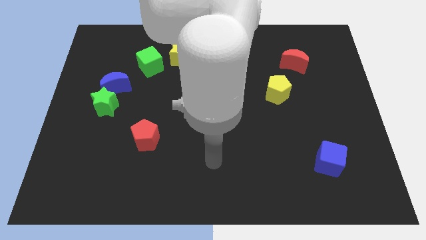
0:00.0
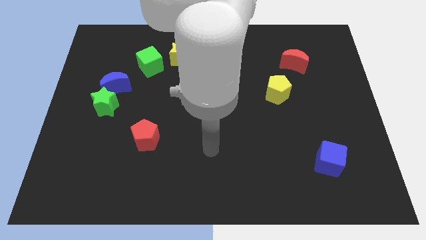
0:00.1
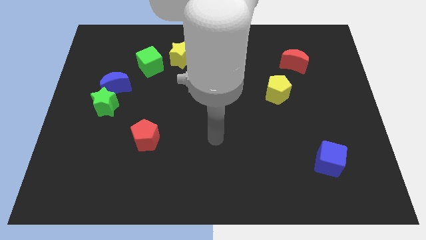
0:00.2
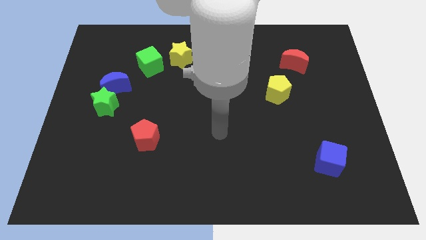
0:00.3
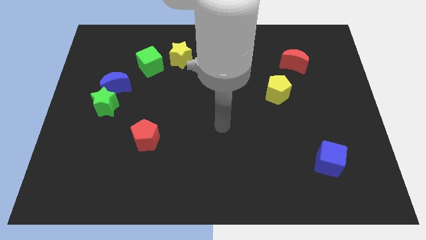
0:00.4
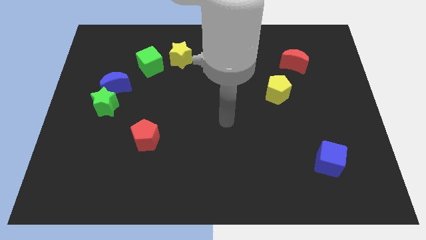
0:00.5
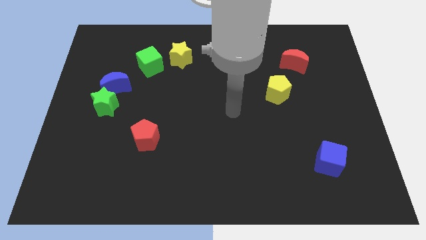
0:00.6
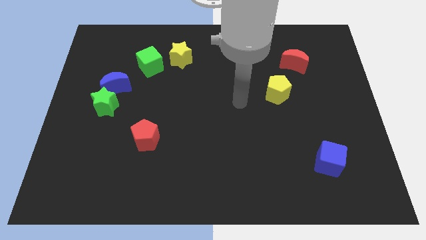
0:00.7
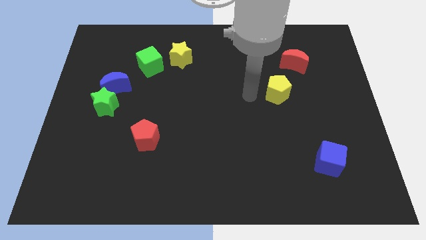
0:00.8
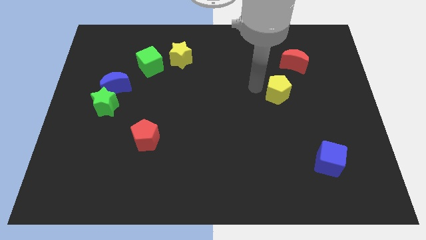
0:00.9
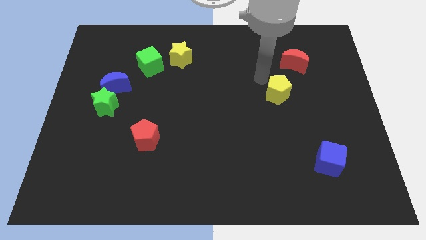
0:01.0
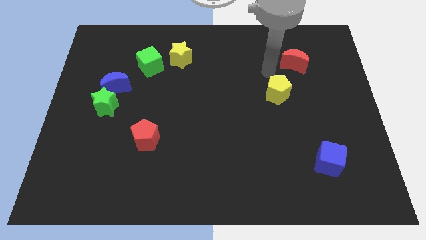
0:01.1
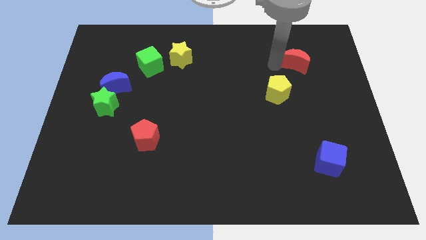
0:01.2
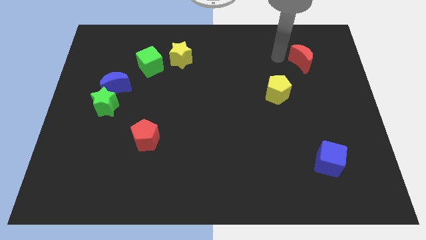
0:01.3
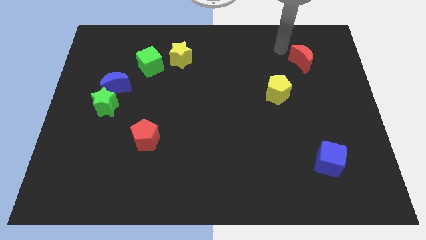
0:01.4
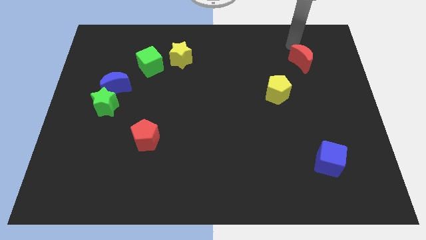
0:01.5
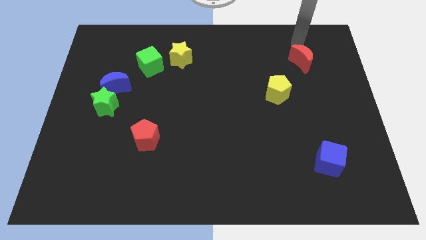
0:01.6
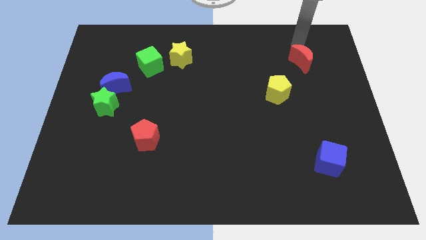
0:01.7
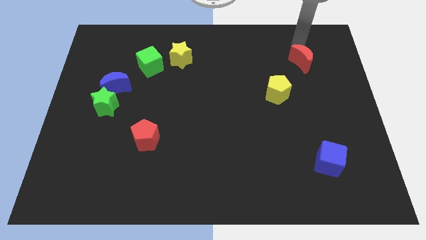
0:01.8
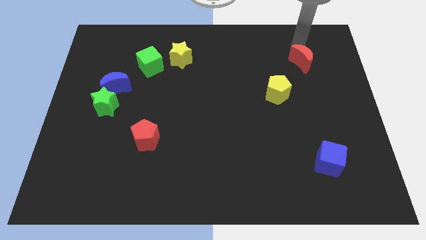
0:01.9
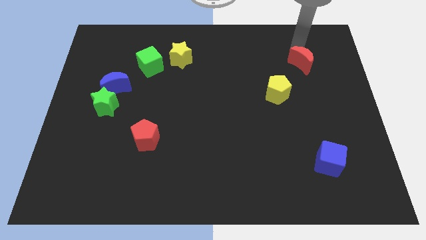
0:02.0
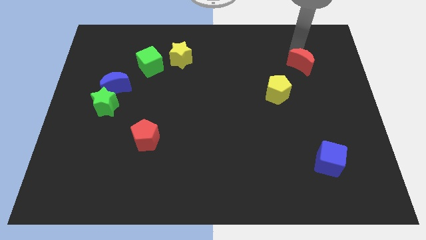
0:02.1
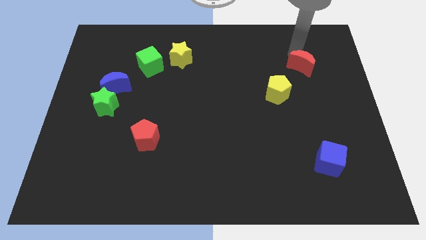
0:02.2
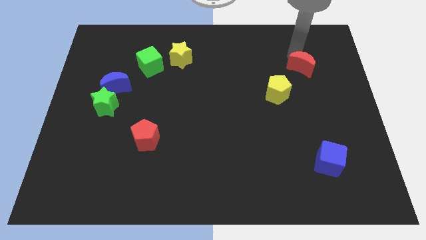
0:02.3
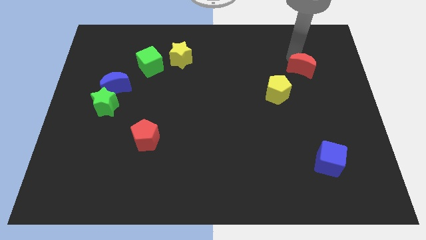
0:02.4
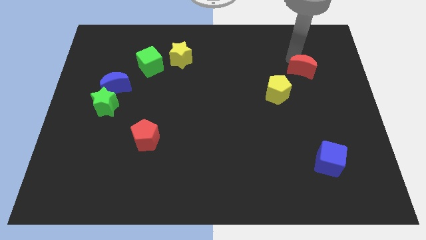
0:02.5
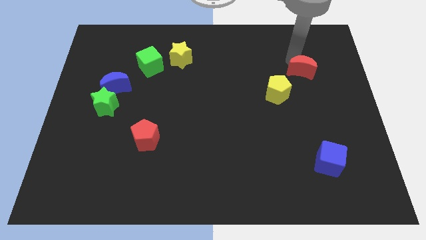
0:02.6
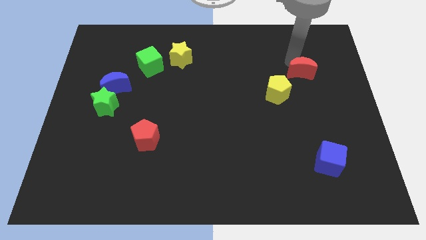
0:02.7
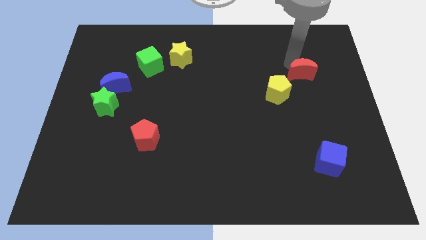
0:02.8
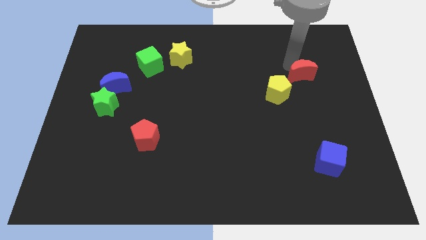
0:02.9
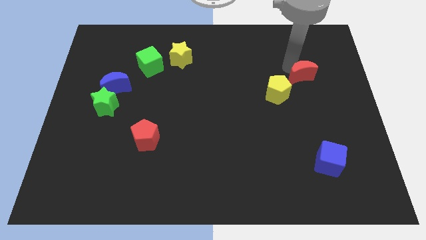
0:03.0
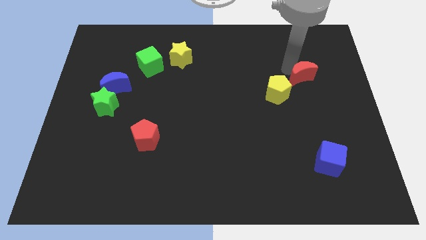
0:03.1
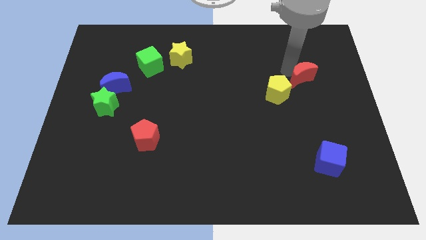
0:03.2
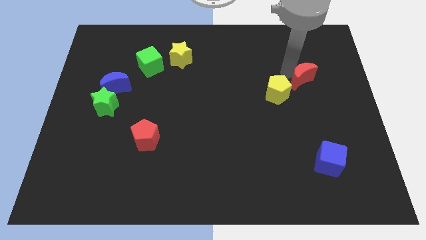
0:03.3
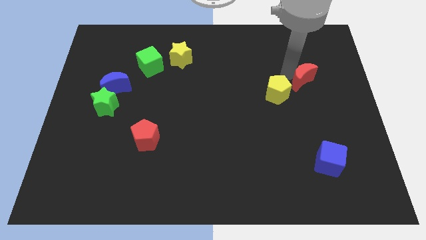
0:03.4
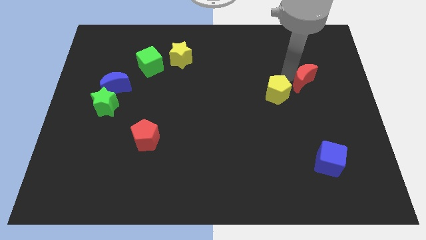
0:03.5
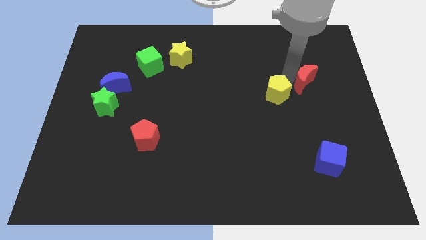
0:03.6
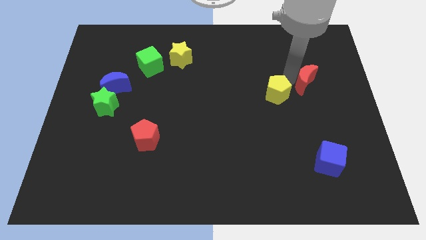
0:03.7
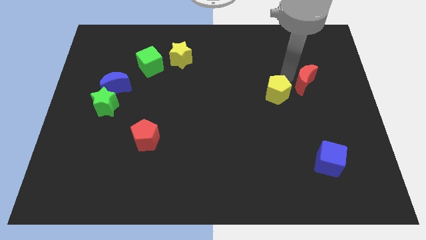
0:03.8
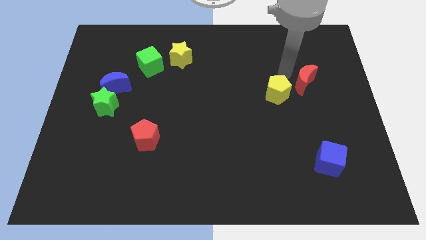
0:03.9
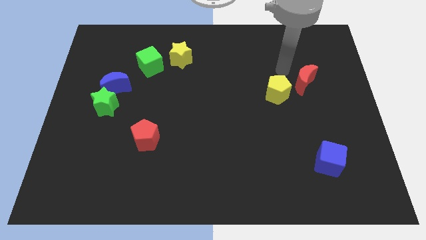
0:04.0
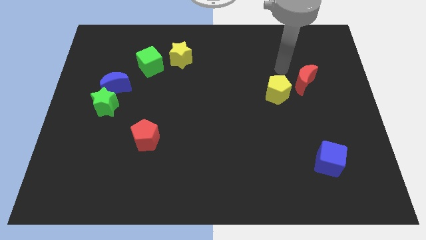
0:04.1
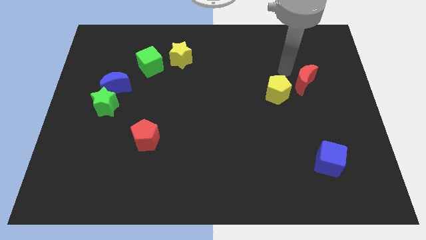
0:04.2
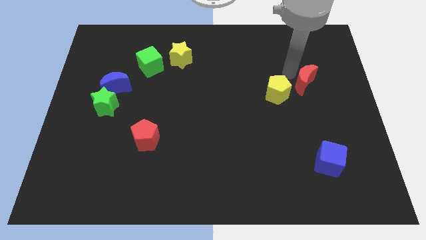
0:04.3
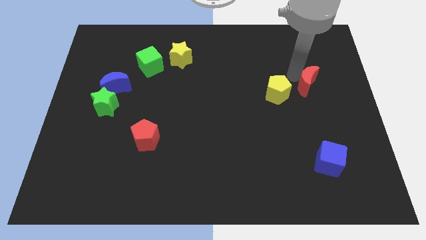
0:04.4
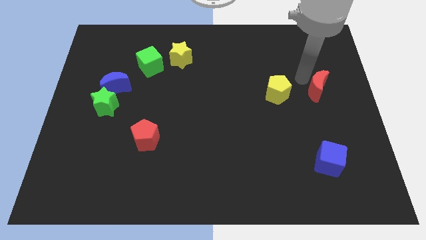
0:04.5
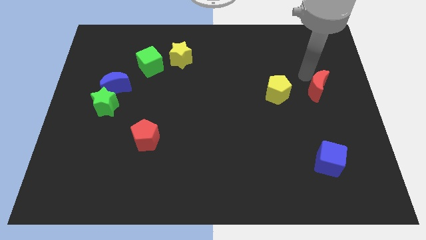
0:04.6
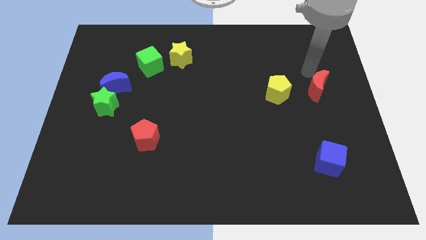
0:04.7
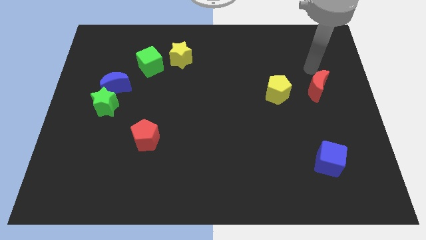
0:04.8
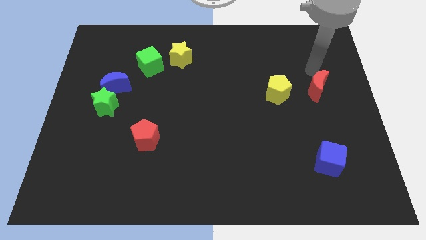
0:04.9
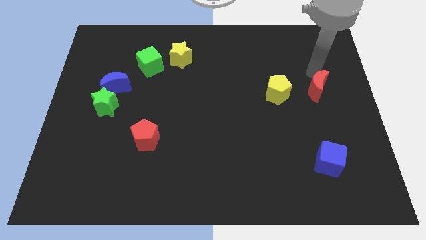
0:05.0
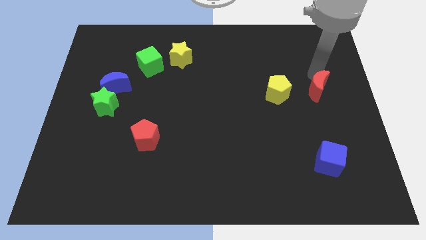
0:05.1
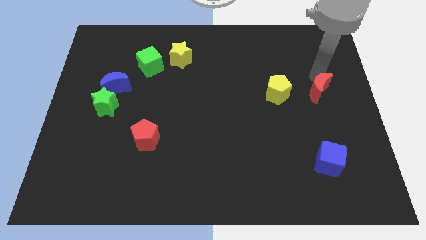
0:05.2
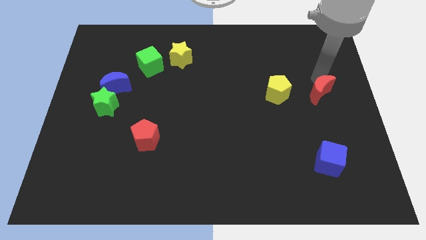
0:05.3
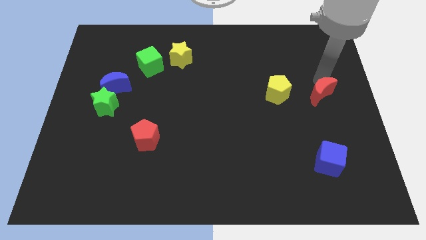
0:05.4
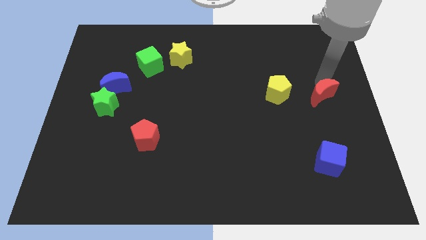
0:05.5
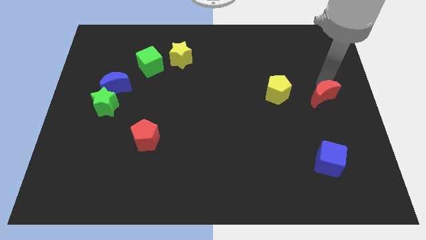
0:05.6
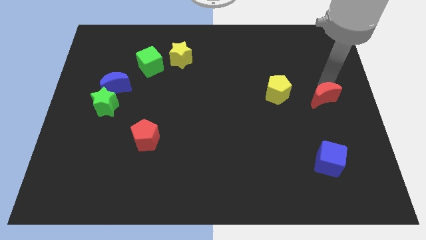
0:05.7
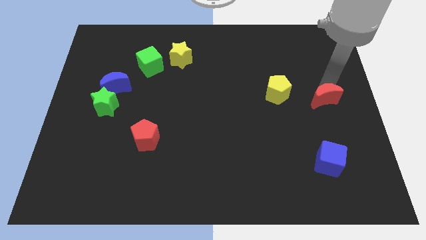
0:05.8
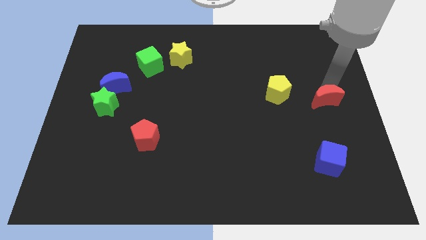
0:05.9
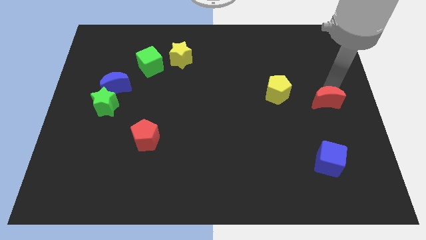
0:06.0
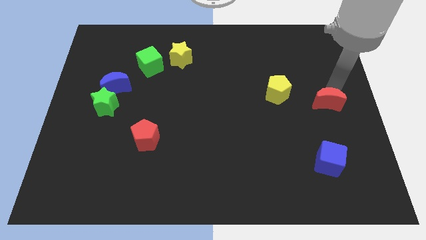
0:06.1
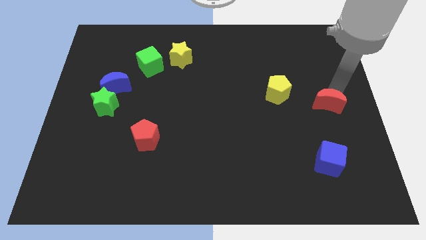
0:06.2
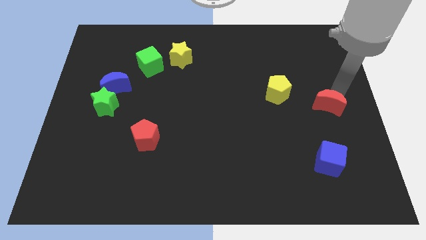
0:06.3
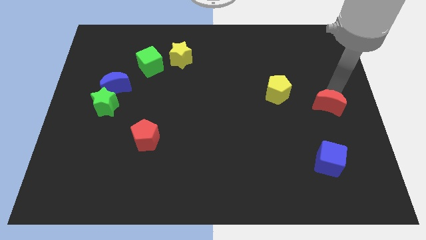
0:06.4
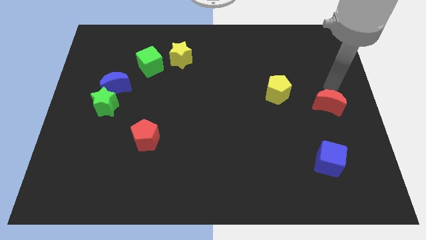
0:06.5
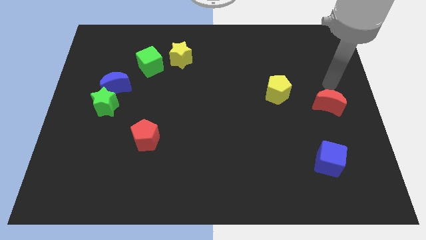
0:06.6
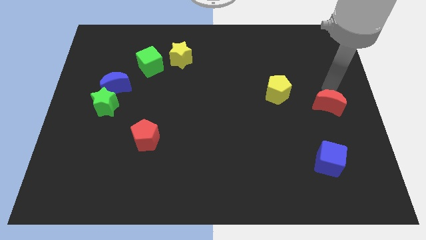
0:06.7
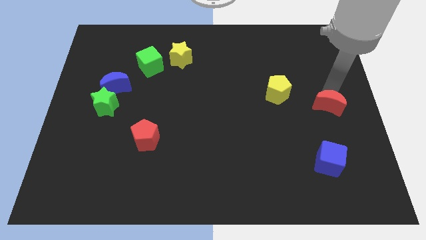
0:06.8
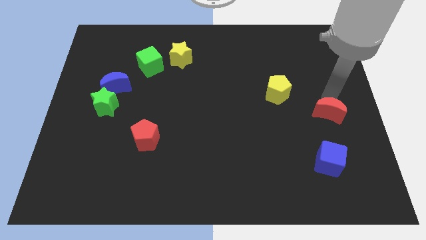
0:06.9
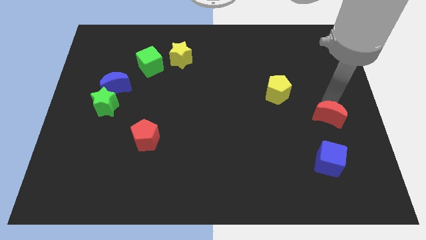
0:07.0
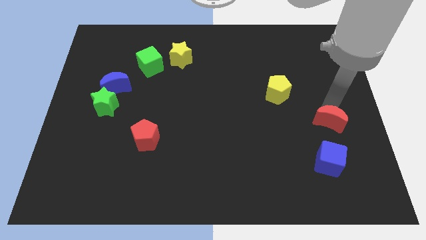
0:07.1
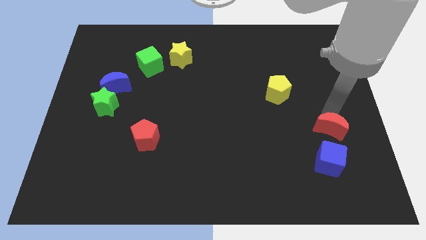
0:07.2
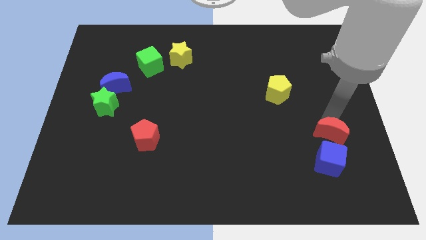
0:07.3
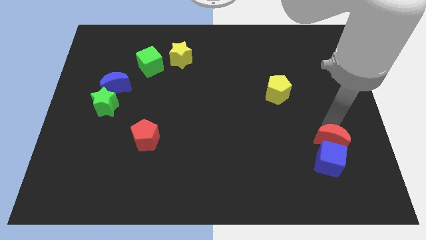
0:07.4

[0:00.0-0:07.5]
move the red moon to the blue cube
